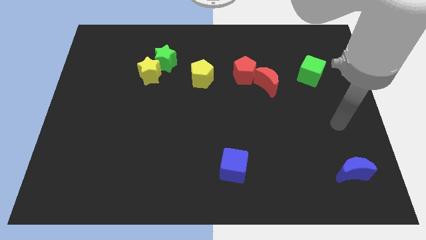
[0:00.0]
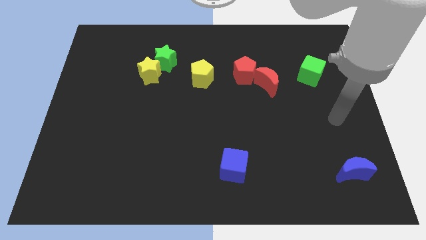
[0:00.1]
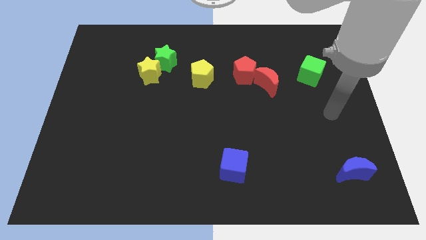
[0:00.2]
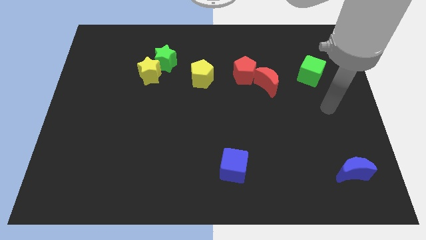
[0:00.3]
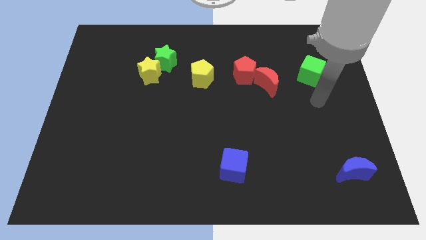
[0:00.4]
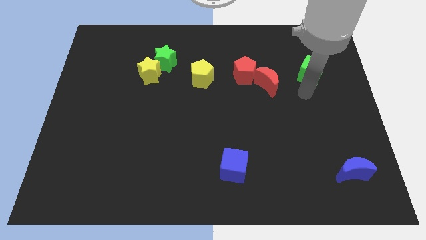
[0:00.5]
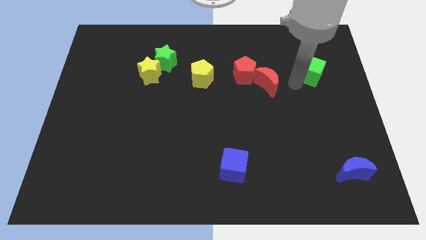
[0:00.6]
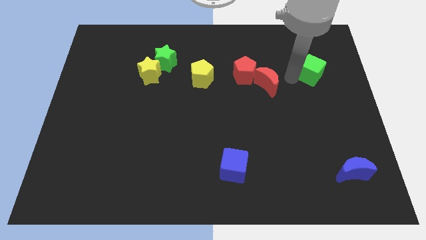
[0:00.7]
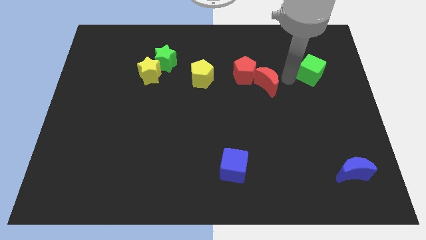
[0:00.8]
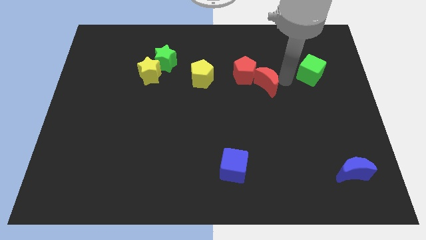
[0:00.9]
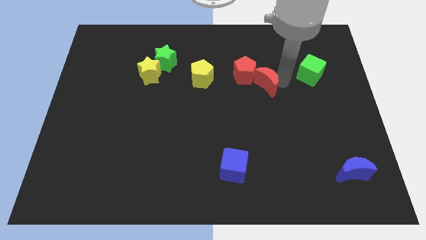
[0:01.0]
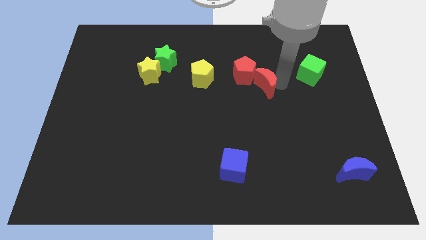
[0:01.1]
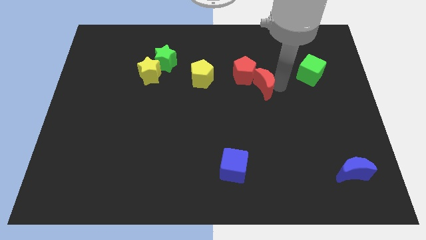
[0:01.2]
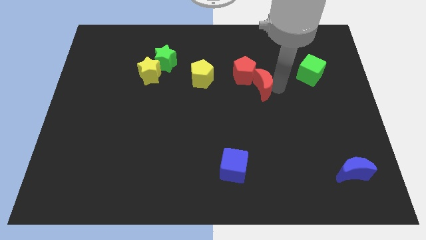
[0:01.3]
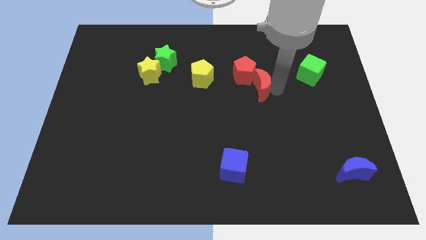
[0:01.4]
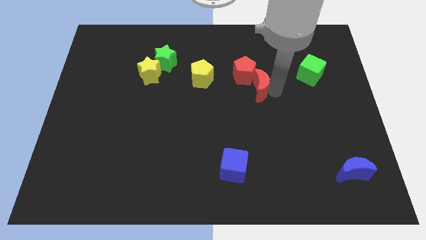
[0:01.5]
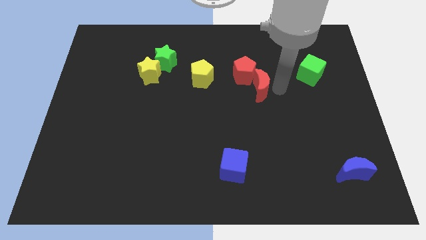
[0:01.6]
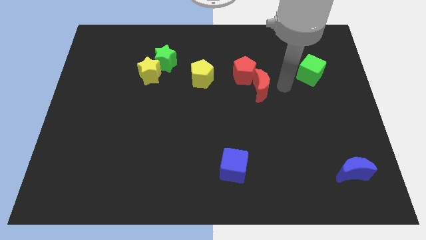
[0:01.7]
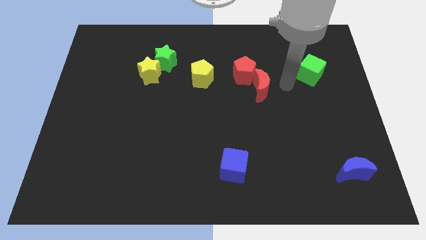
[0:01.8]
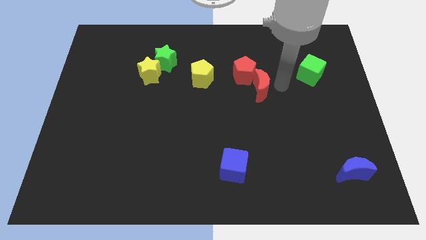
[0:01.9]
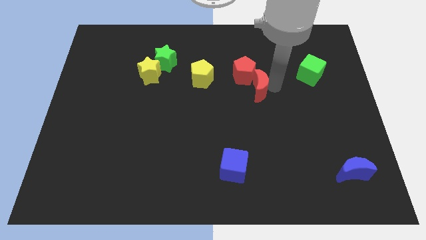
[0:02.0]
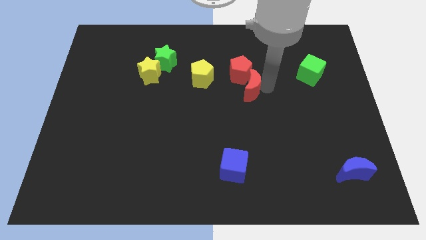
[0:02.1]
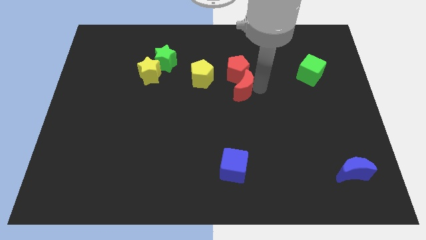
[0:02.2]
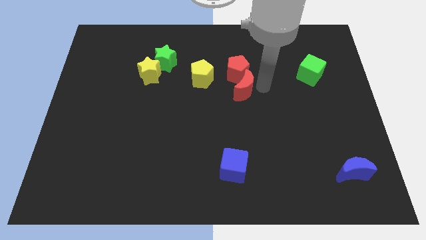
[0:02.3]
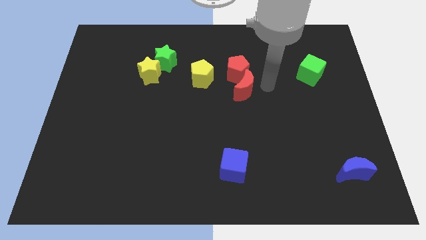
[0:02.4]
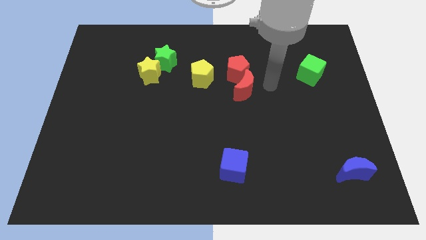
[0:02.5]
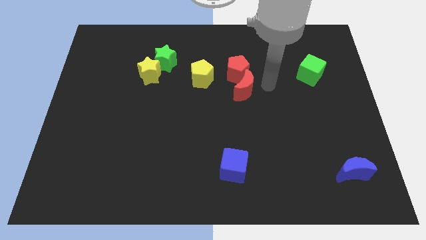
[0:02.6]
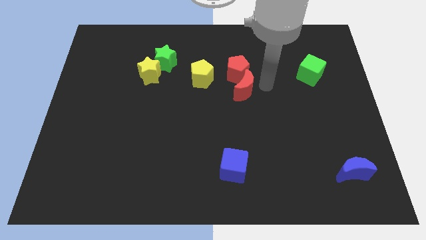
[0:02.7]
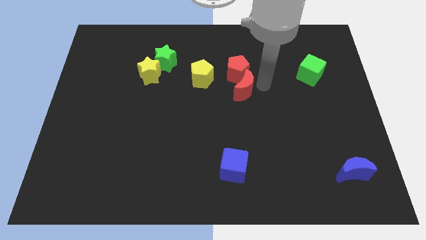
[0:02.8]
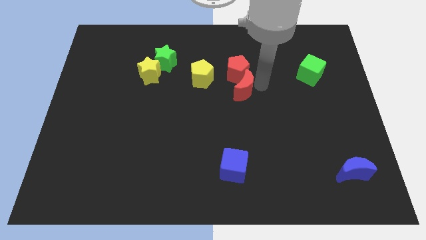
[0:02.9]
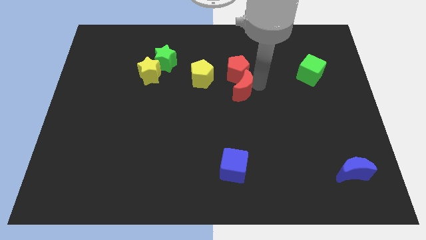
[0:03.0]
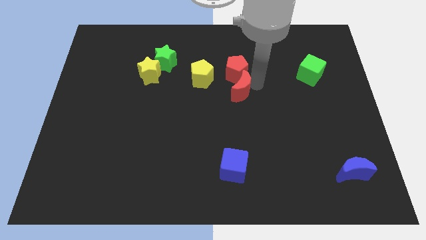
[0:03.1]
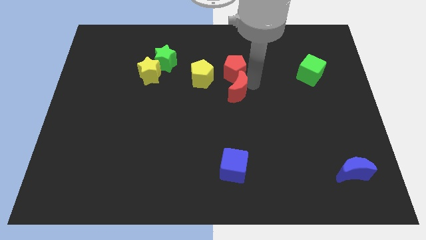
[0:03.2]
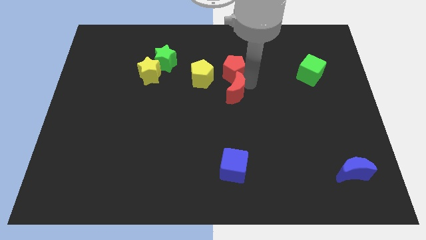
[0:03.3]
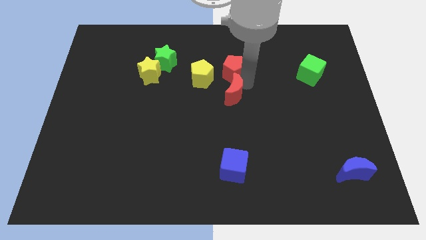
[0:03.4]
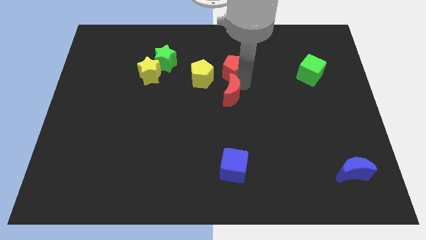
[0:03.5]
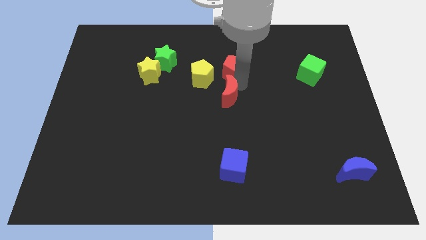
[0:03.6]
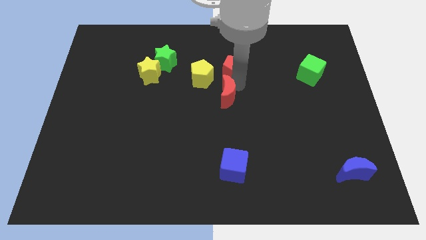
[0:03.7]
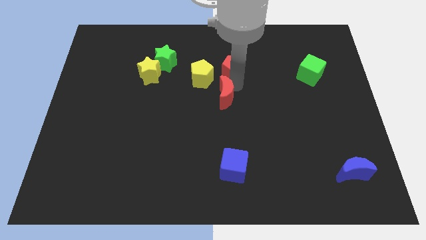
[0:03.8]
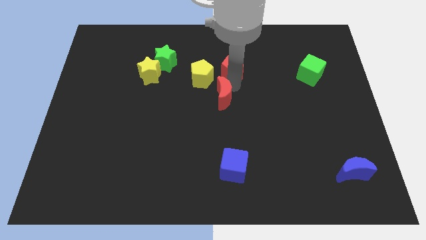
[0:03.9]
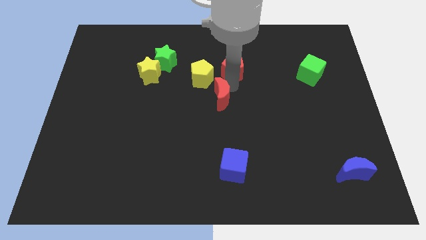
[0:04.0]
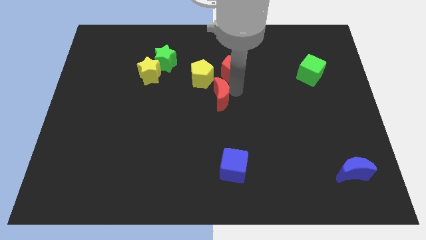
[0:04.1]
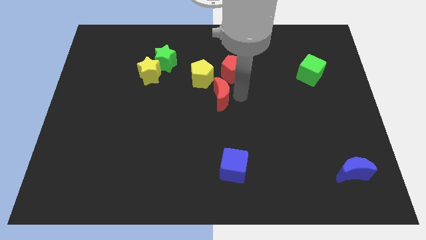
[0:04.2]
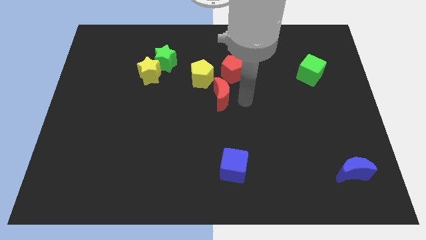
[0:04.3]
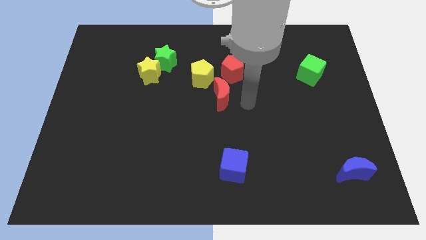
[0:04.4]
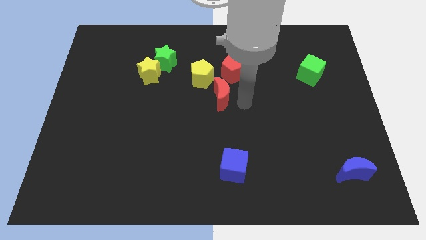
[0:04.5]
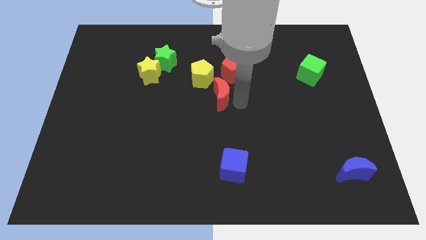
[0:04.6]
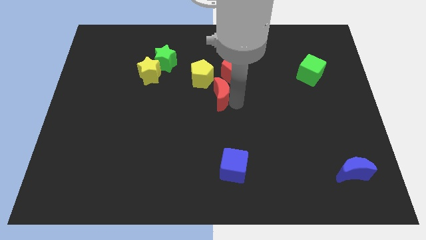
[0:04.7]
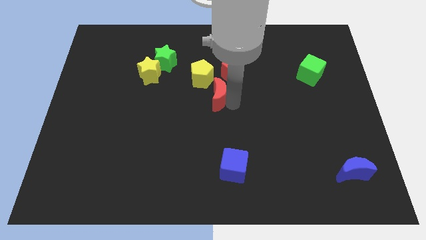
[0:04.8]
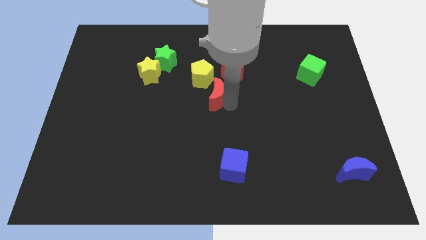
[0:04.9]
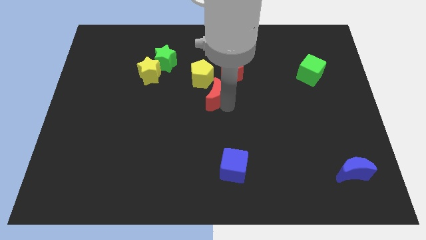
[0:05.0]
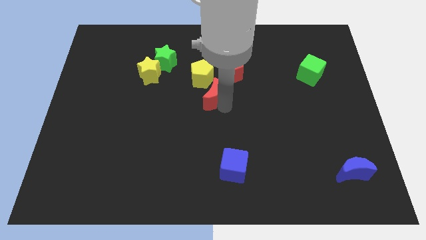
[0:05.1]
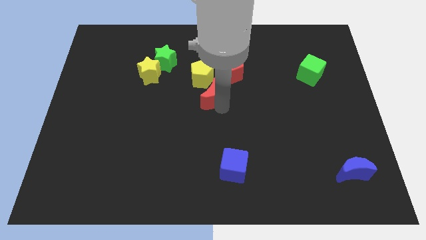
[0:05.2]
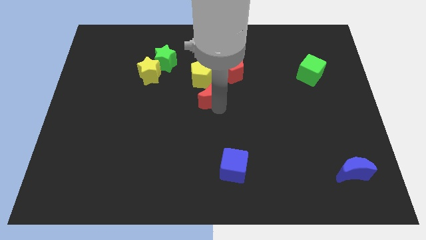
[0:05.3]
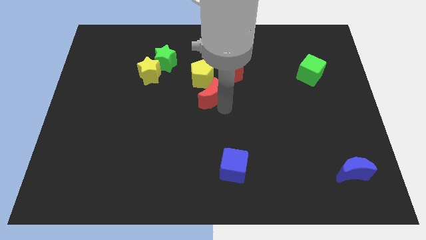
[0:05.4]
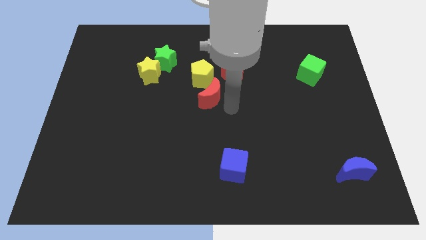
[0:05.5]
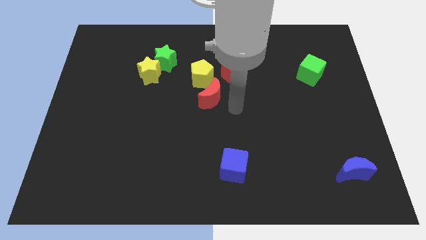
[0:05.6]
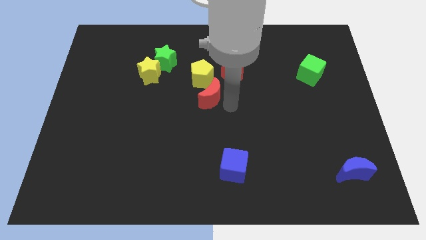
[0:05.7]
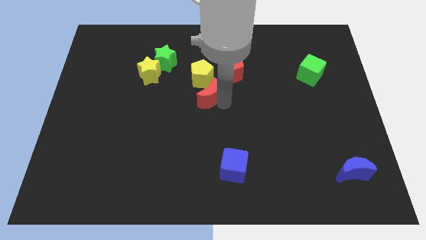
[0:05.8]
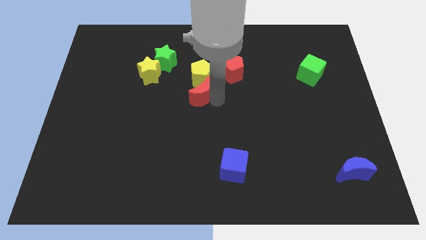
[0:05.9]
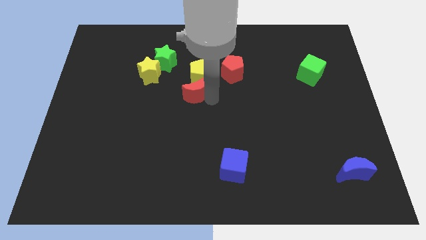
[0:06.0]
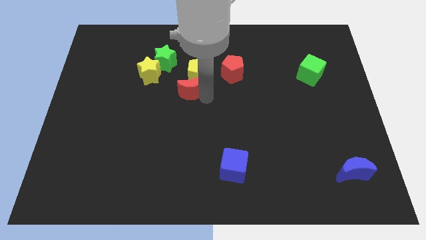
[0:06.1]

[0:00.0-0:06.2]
push the red moon diagonally down and to the right of the green star

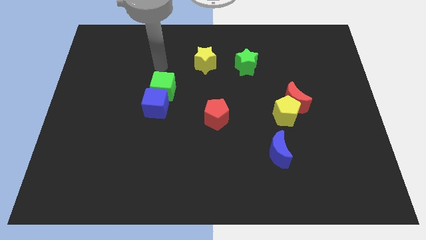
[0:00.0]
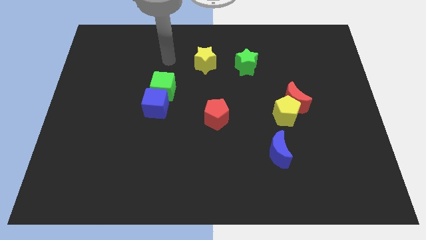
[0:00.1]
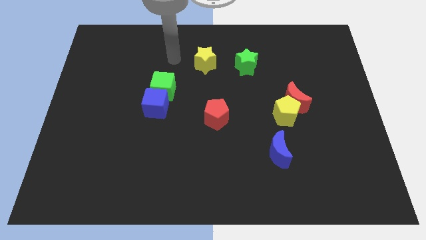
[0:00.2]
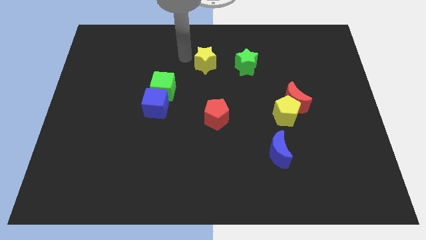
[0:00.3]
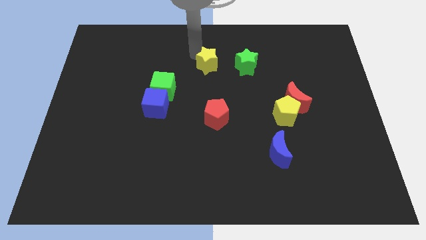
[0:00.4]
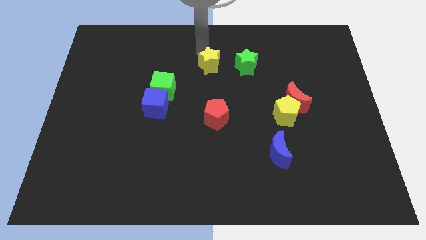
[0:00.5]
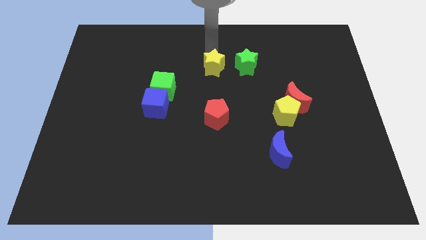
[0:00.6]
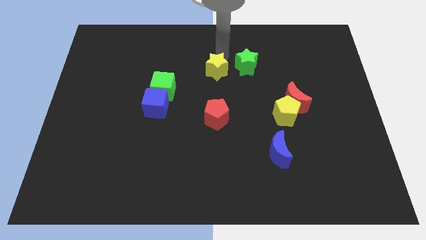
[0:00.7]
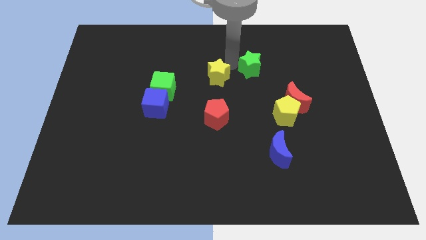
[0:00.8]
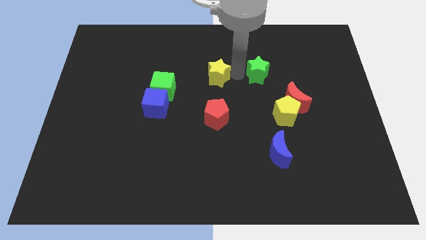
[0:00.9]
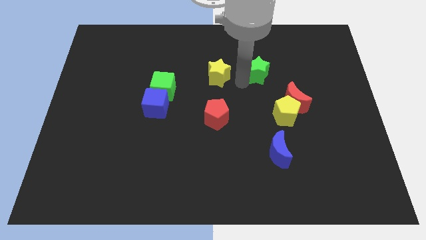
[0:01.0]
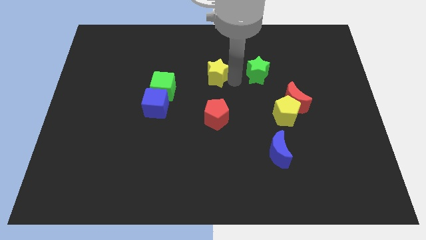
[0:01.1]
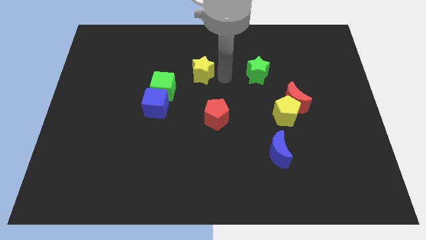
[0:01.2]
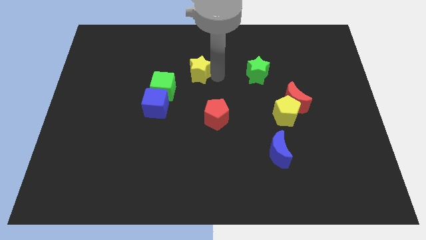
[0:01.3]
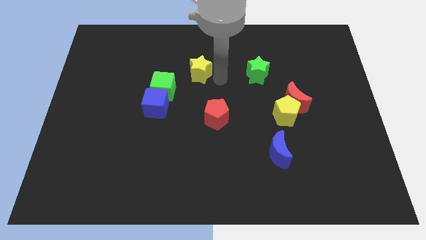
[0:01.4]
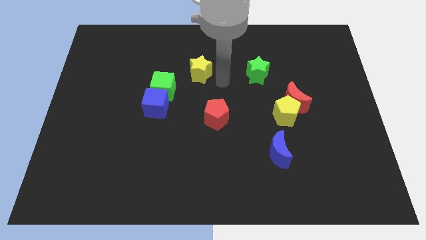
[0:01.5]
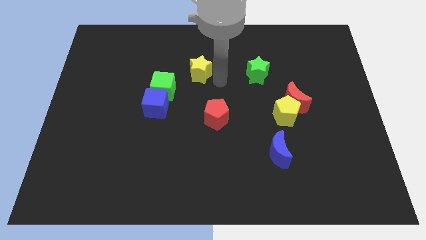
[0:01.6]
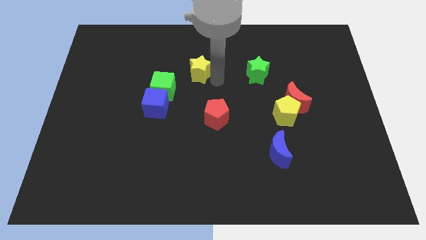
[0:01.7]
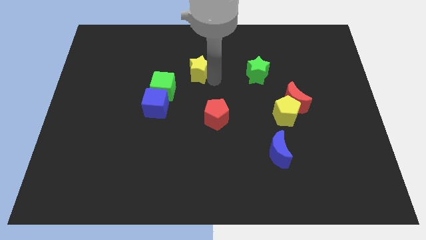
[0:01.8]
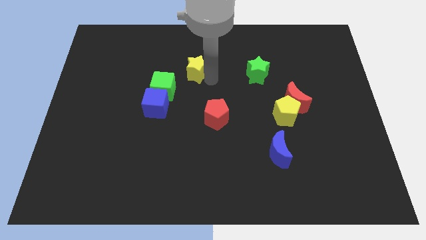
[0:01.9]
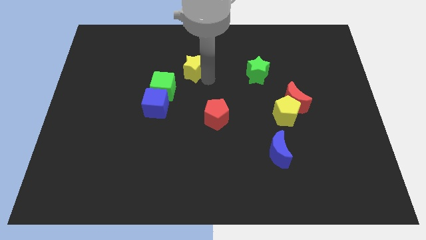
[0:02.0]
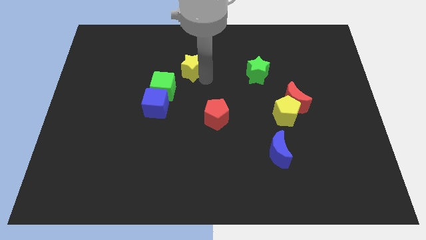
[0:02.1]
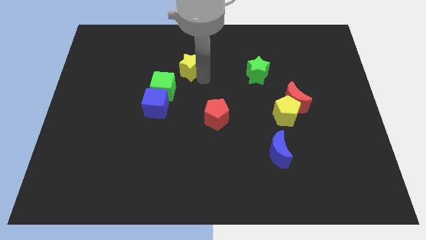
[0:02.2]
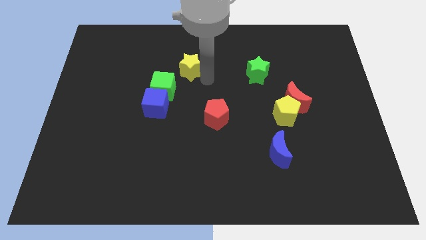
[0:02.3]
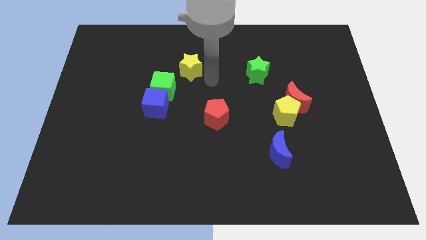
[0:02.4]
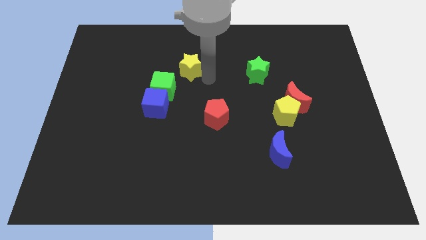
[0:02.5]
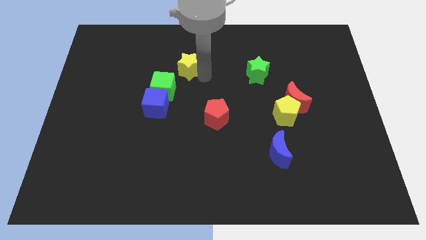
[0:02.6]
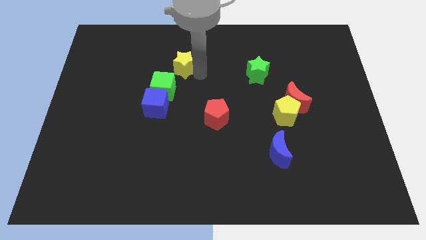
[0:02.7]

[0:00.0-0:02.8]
put the yellow star to the top side of the green cube
